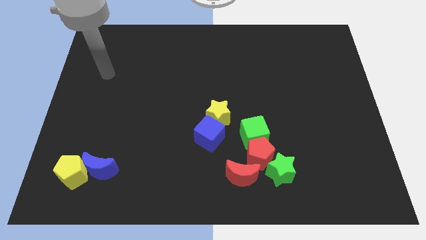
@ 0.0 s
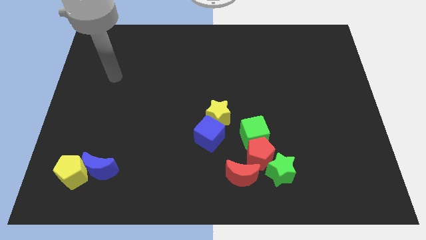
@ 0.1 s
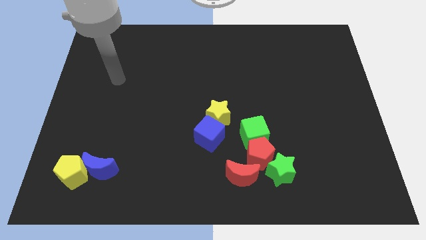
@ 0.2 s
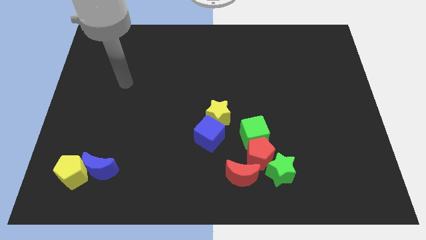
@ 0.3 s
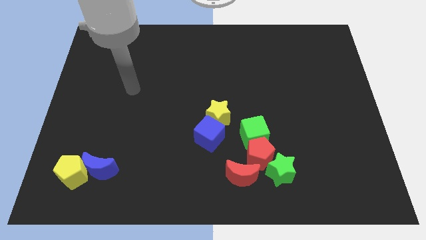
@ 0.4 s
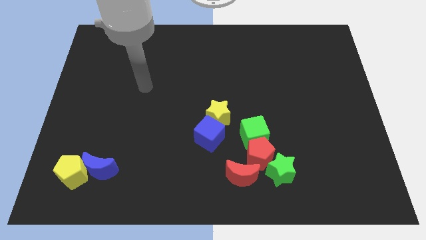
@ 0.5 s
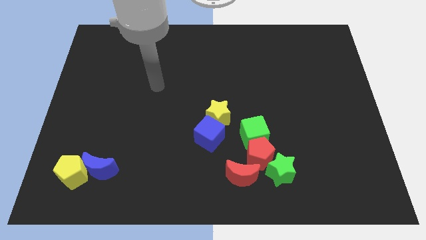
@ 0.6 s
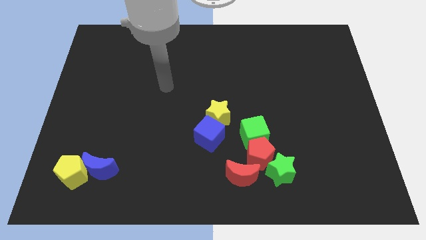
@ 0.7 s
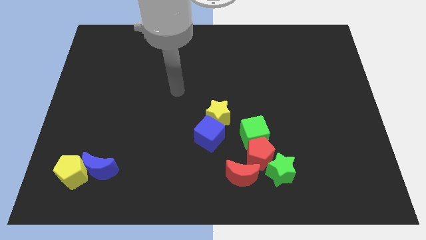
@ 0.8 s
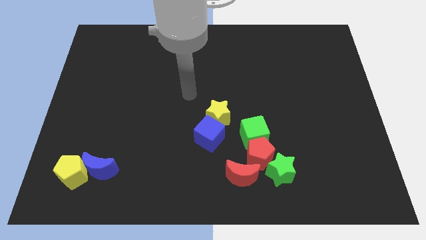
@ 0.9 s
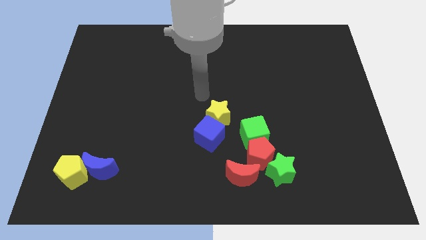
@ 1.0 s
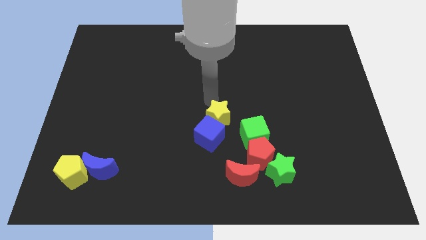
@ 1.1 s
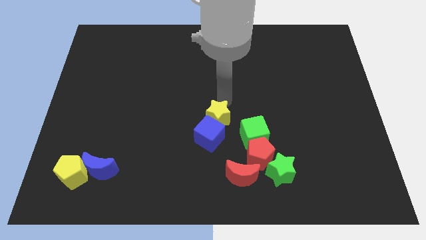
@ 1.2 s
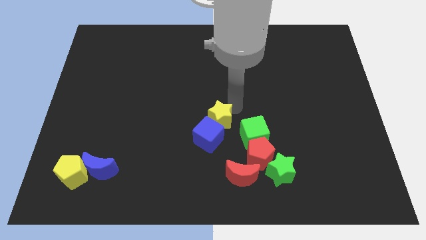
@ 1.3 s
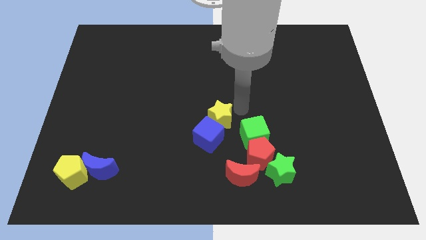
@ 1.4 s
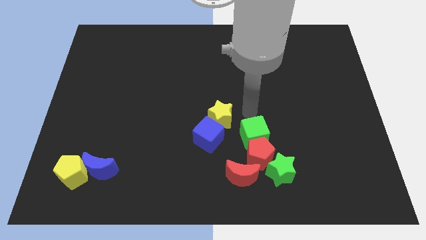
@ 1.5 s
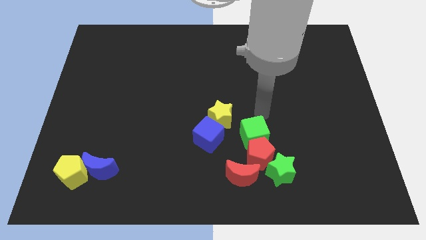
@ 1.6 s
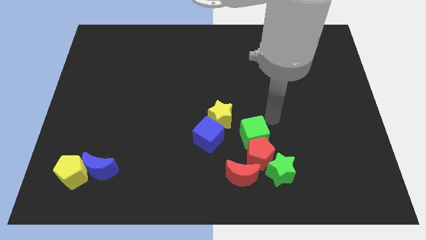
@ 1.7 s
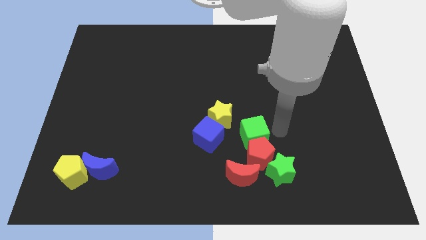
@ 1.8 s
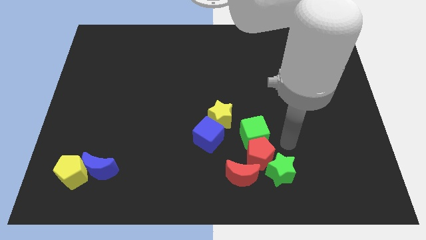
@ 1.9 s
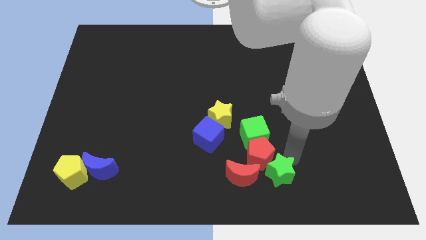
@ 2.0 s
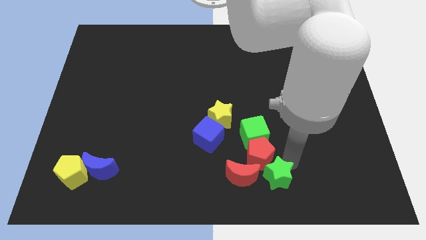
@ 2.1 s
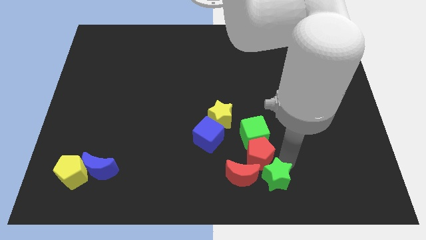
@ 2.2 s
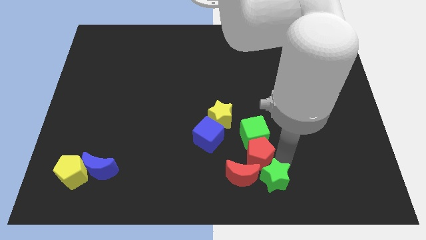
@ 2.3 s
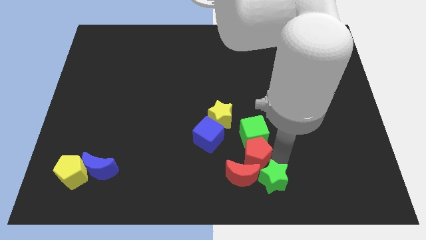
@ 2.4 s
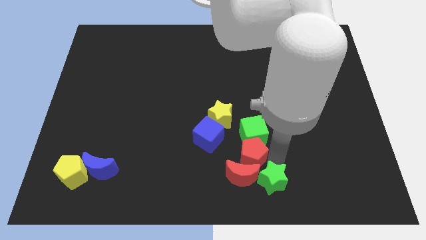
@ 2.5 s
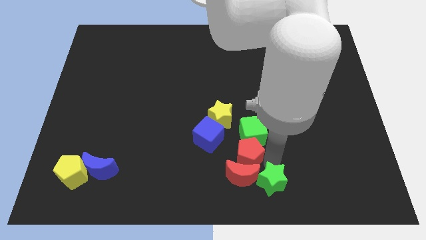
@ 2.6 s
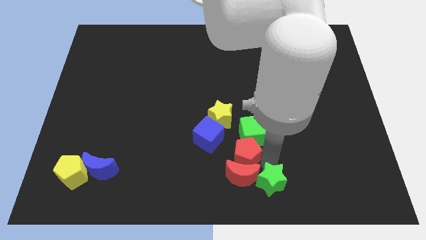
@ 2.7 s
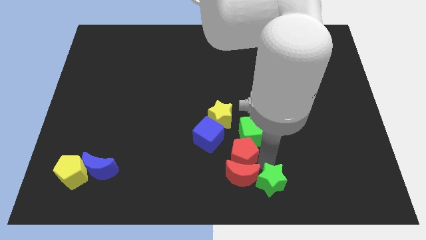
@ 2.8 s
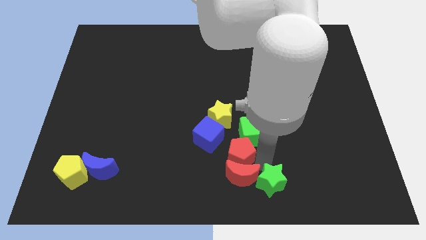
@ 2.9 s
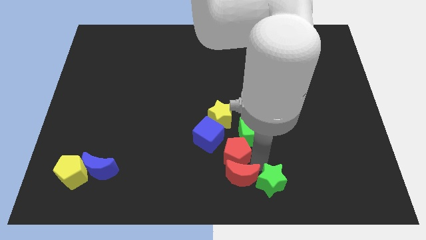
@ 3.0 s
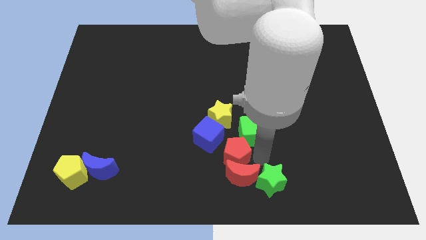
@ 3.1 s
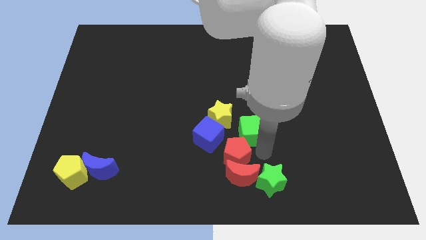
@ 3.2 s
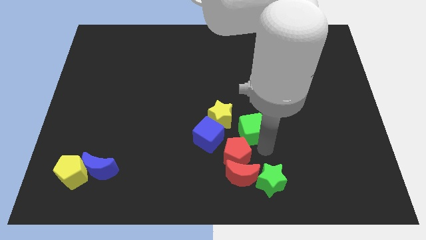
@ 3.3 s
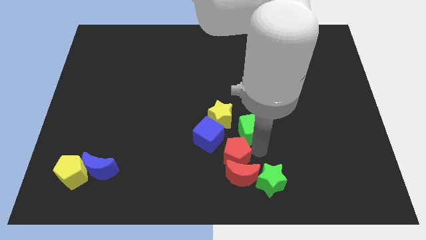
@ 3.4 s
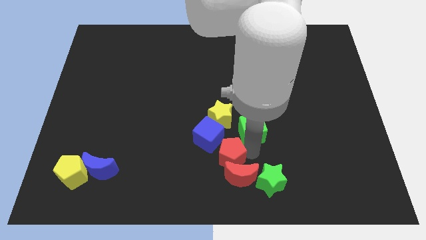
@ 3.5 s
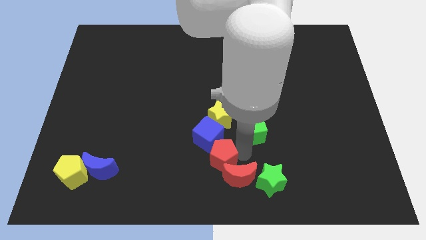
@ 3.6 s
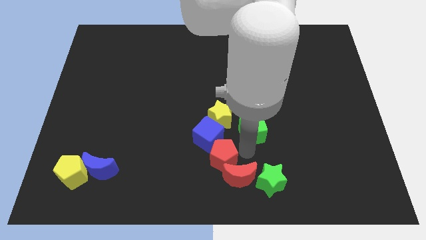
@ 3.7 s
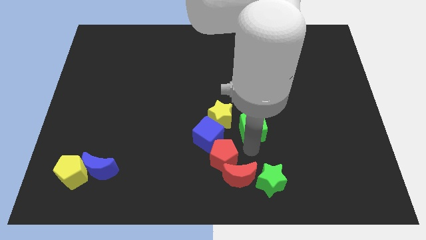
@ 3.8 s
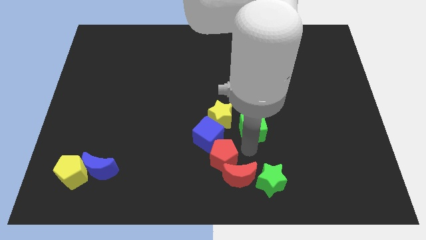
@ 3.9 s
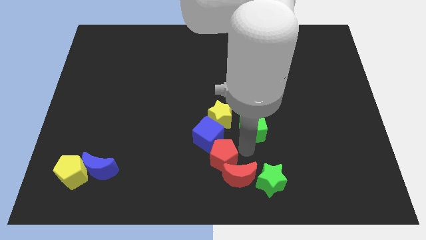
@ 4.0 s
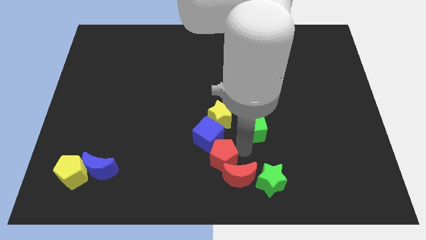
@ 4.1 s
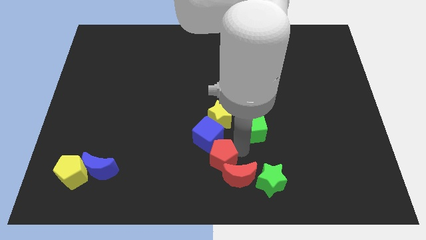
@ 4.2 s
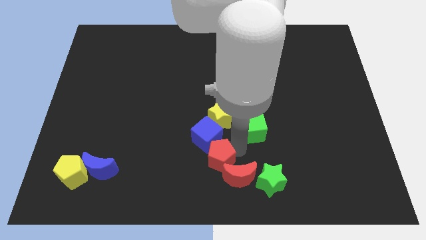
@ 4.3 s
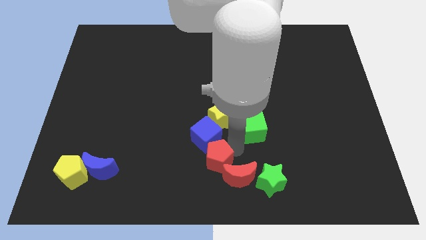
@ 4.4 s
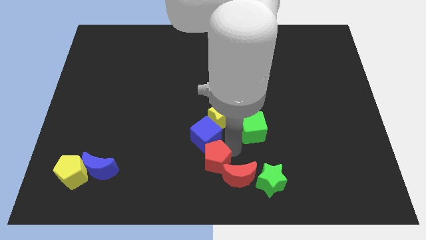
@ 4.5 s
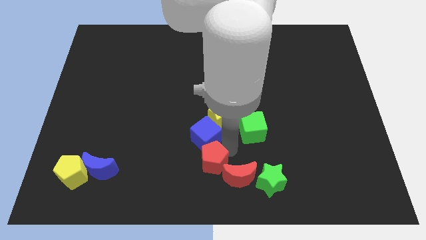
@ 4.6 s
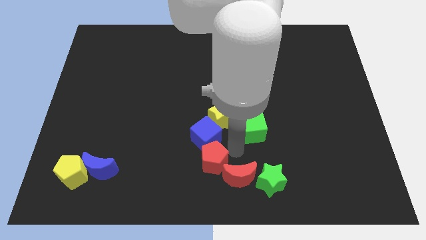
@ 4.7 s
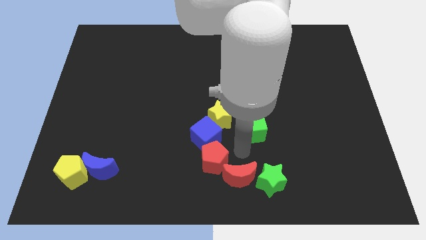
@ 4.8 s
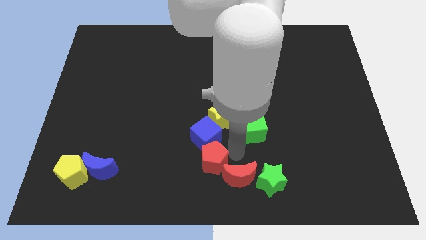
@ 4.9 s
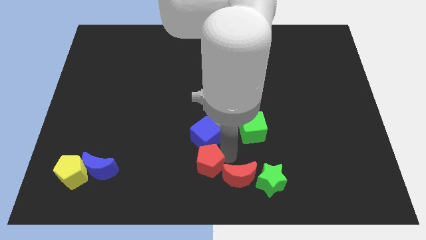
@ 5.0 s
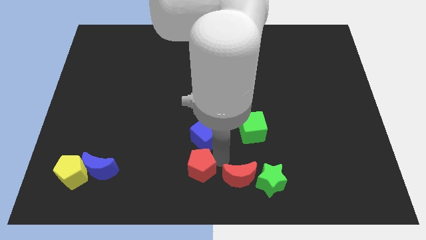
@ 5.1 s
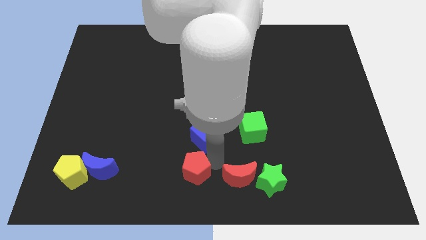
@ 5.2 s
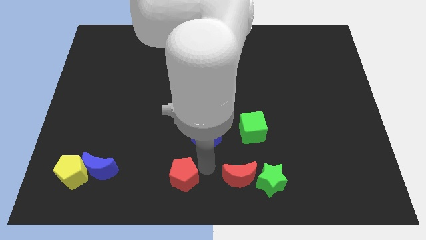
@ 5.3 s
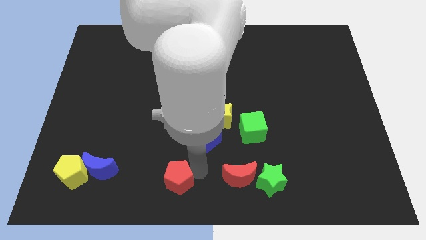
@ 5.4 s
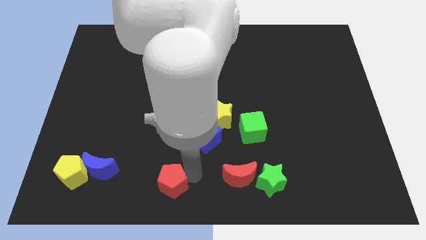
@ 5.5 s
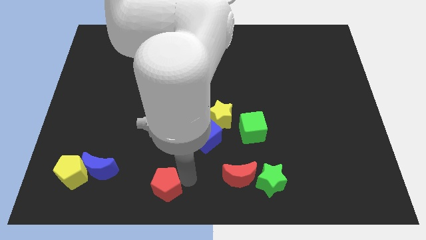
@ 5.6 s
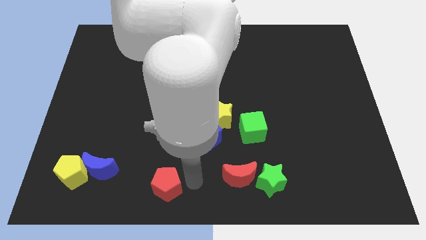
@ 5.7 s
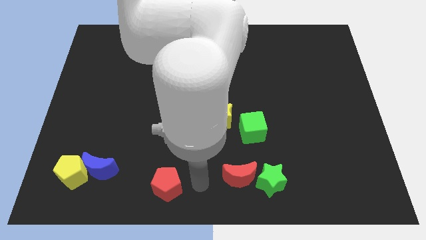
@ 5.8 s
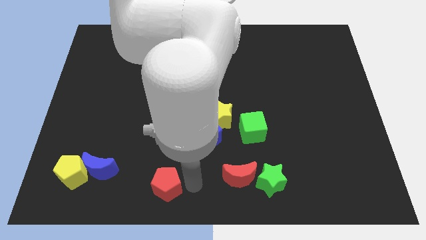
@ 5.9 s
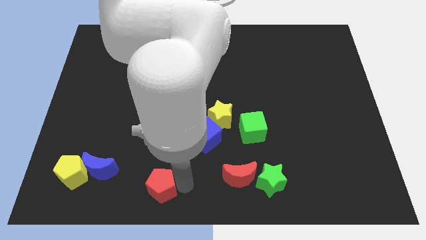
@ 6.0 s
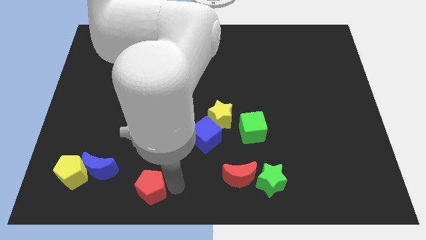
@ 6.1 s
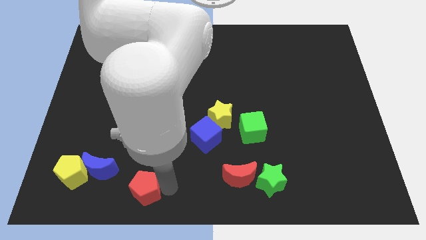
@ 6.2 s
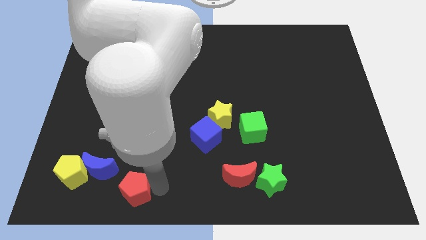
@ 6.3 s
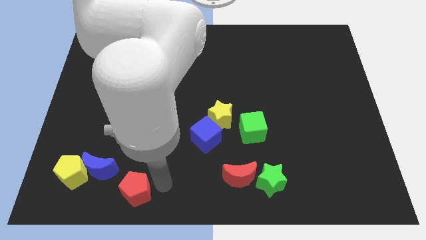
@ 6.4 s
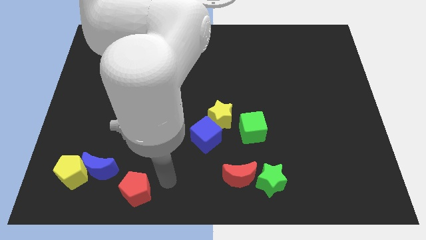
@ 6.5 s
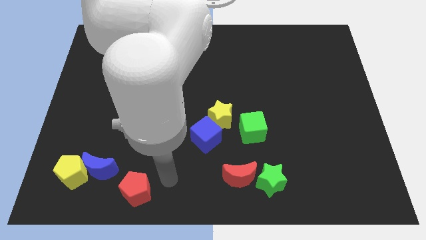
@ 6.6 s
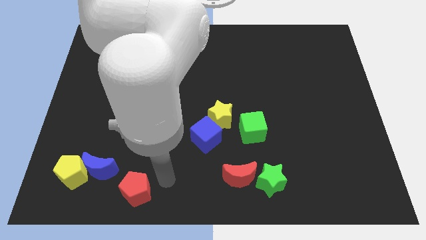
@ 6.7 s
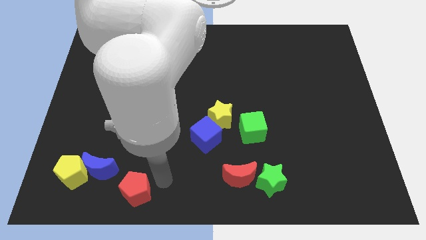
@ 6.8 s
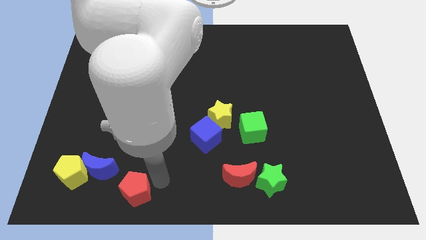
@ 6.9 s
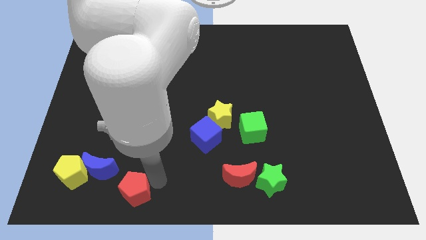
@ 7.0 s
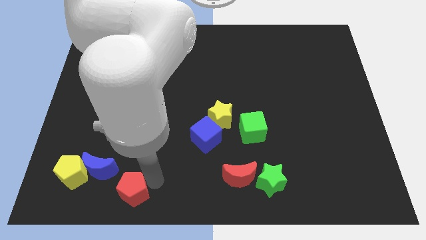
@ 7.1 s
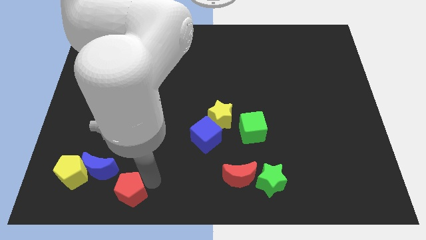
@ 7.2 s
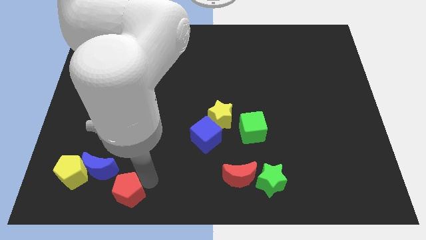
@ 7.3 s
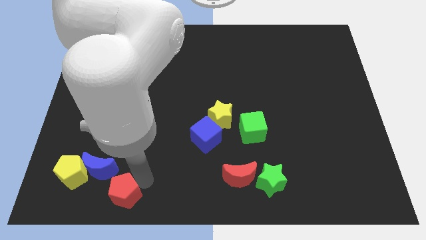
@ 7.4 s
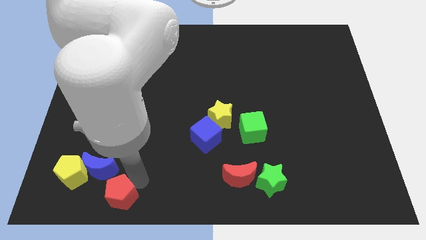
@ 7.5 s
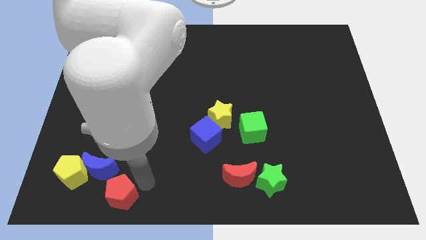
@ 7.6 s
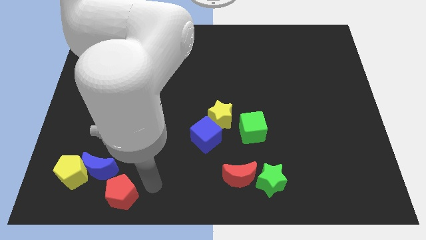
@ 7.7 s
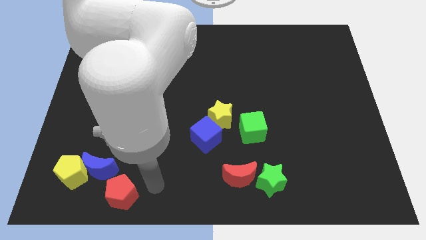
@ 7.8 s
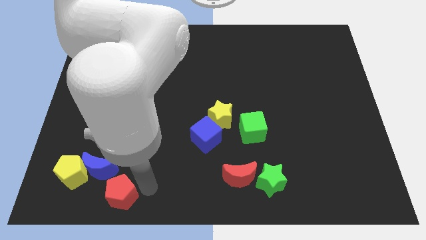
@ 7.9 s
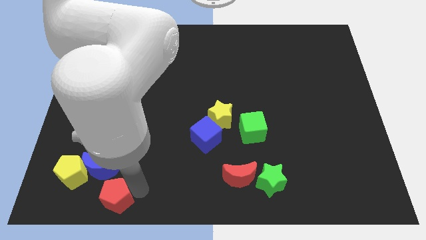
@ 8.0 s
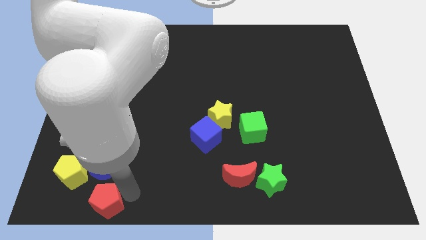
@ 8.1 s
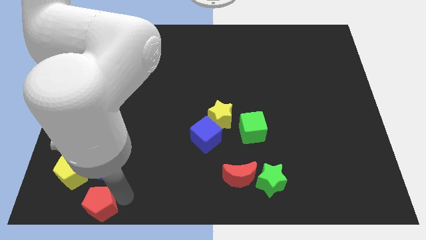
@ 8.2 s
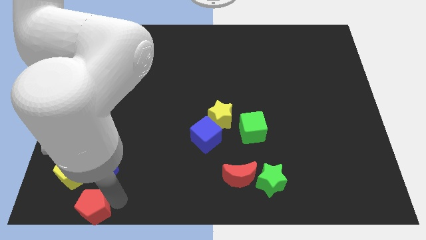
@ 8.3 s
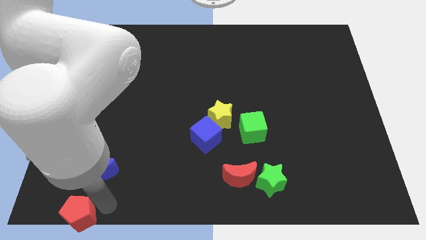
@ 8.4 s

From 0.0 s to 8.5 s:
slide the red pentagon to the bottom left corner
